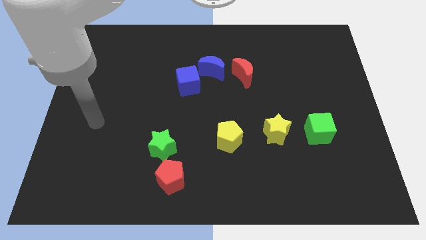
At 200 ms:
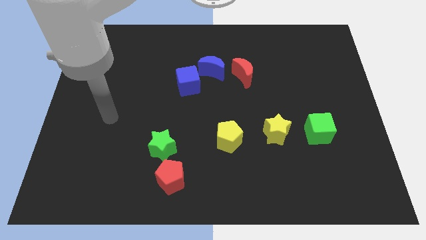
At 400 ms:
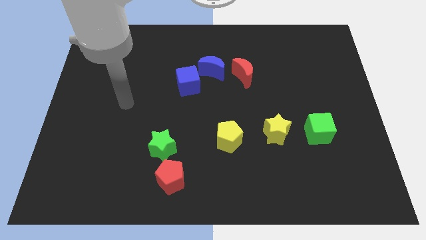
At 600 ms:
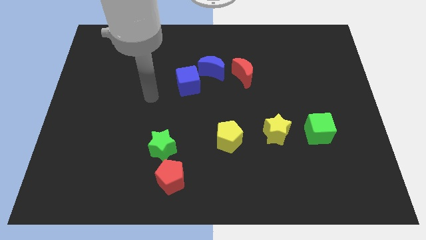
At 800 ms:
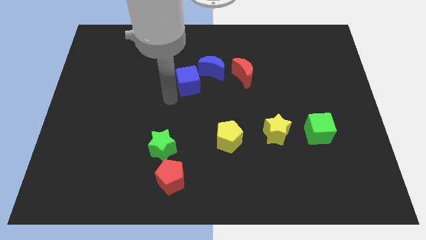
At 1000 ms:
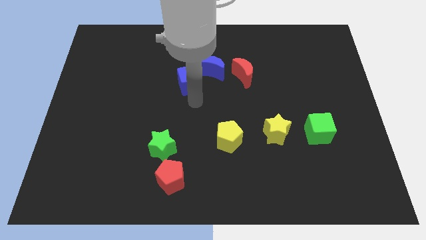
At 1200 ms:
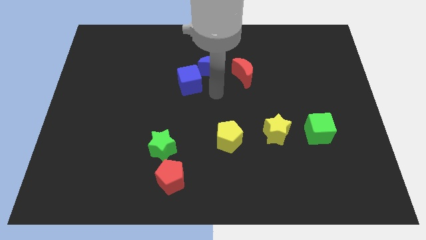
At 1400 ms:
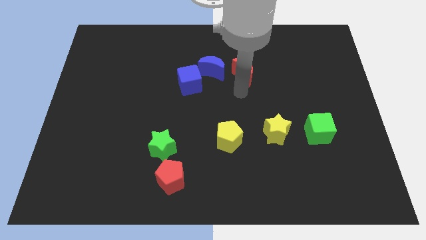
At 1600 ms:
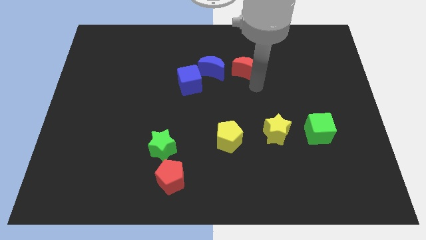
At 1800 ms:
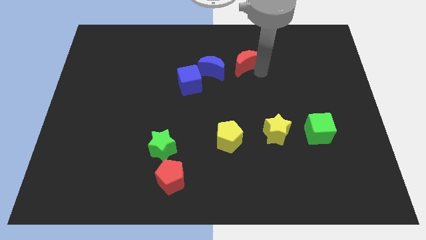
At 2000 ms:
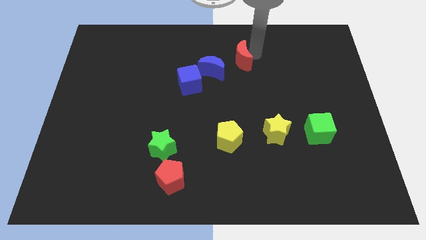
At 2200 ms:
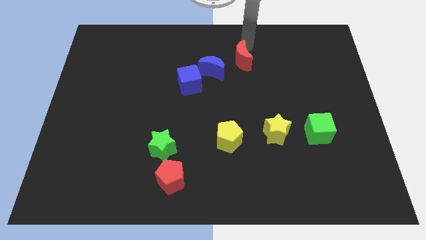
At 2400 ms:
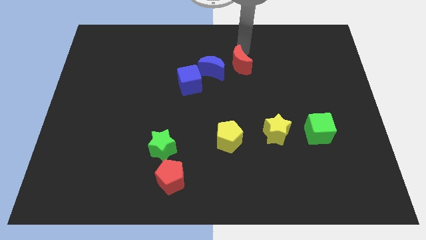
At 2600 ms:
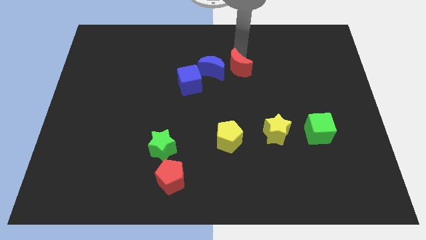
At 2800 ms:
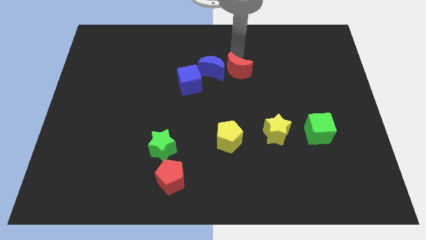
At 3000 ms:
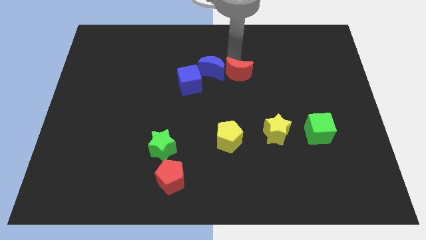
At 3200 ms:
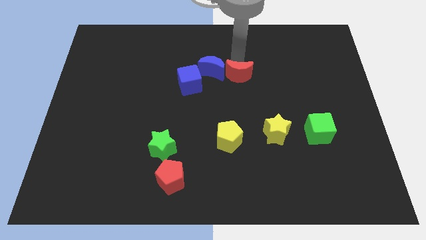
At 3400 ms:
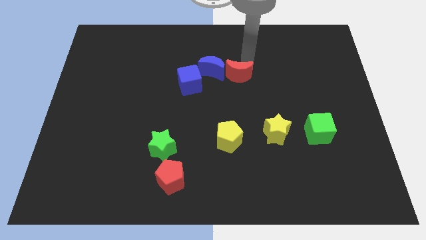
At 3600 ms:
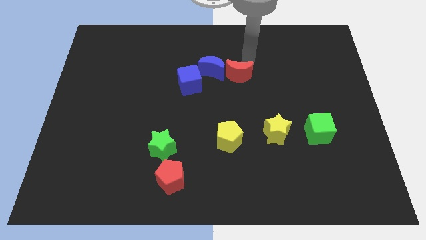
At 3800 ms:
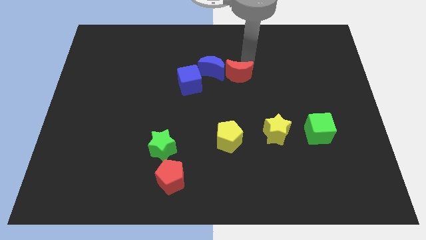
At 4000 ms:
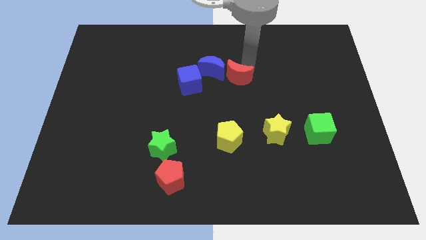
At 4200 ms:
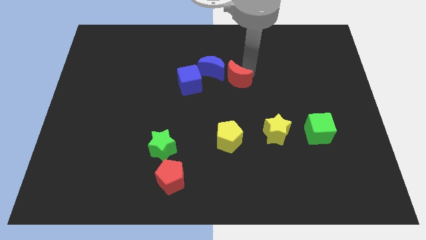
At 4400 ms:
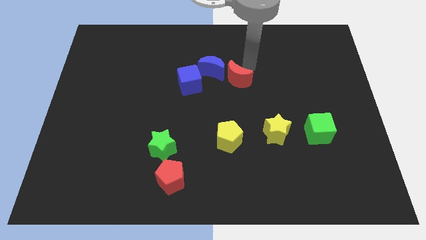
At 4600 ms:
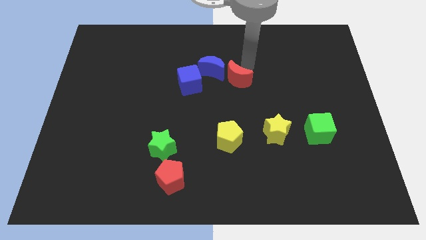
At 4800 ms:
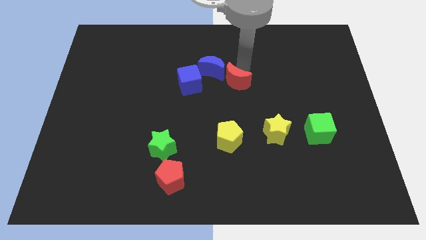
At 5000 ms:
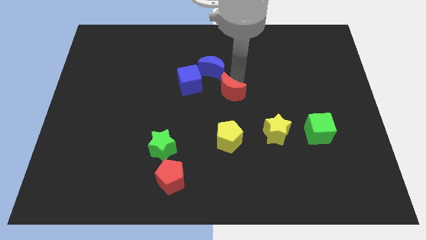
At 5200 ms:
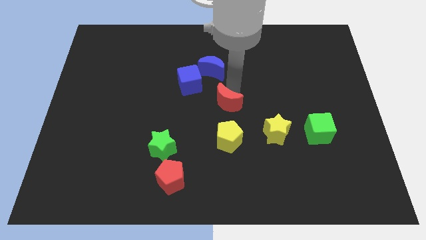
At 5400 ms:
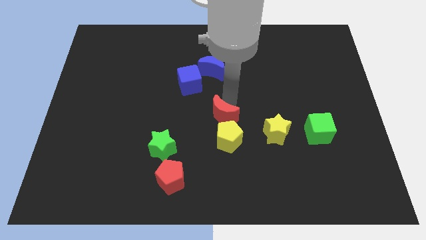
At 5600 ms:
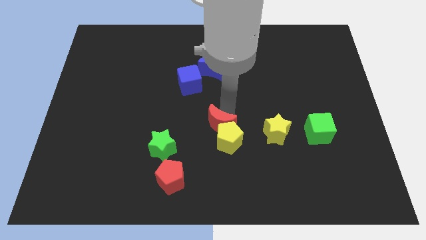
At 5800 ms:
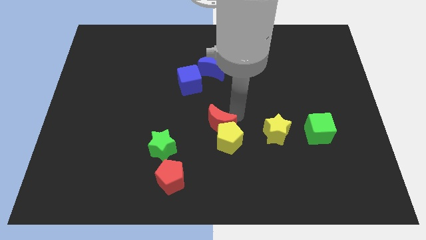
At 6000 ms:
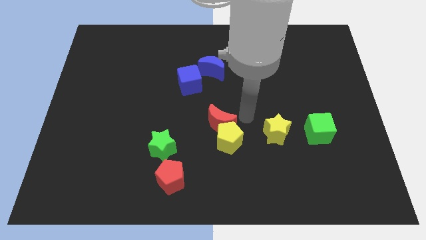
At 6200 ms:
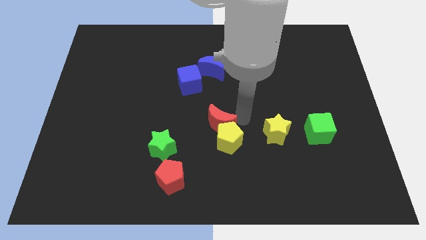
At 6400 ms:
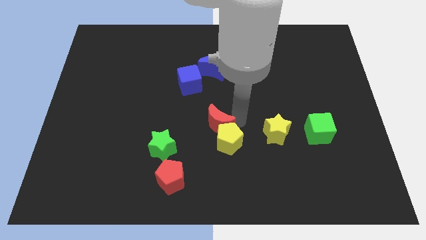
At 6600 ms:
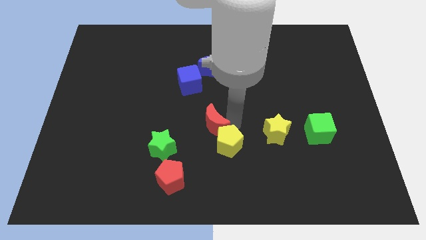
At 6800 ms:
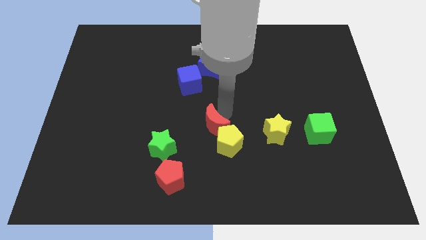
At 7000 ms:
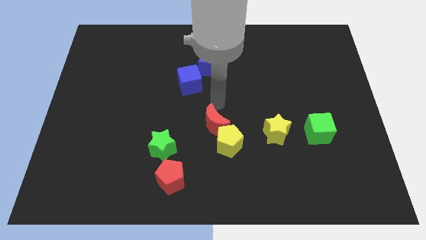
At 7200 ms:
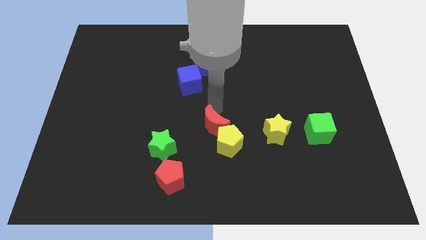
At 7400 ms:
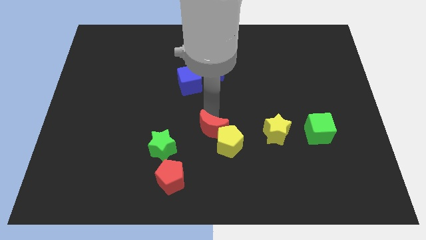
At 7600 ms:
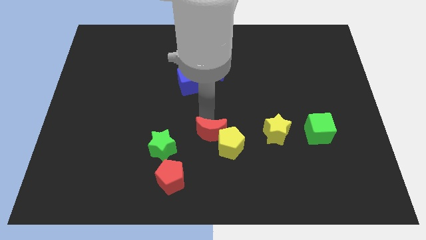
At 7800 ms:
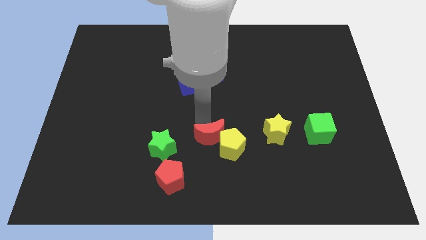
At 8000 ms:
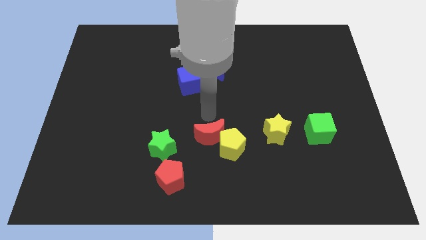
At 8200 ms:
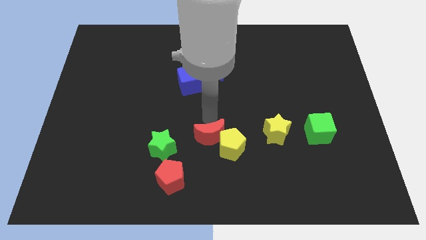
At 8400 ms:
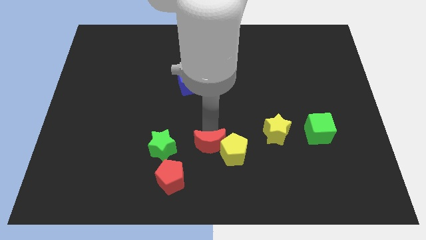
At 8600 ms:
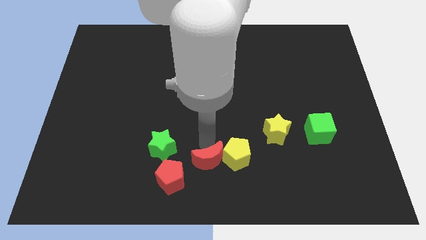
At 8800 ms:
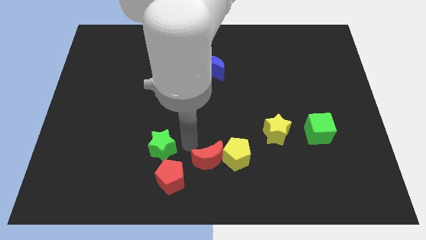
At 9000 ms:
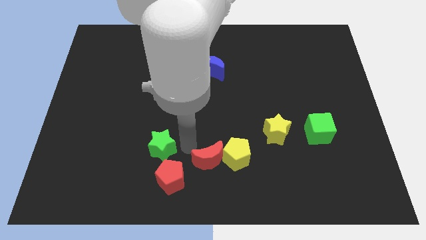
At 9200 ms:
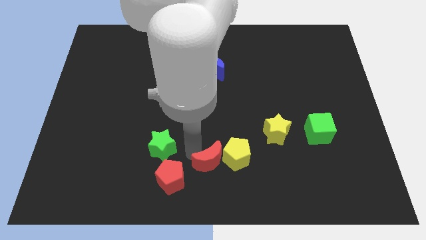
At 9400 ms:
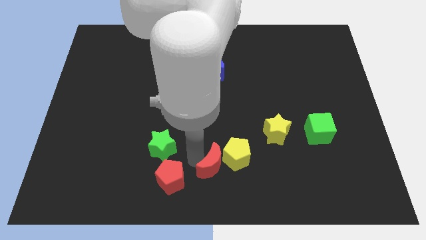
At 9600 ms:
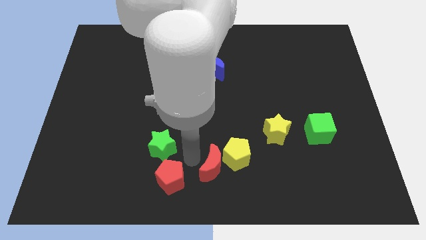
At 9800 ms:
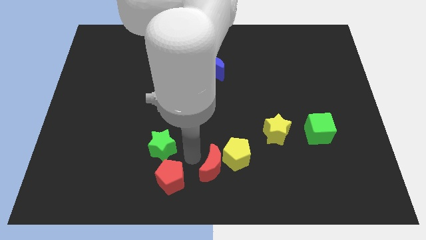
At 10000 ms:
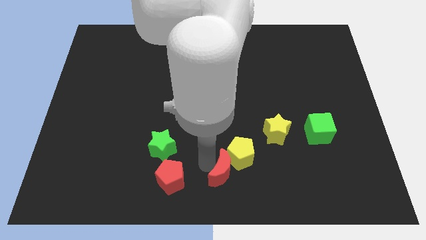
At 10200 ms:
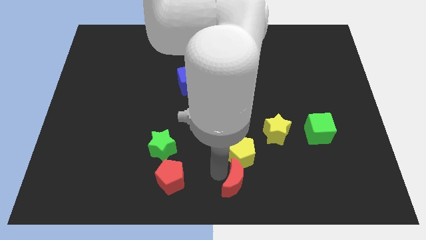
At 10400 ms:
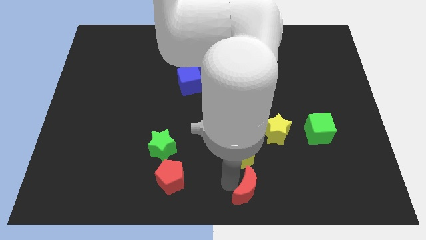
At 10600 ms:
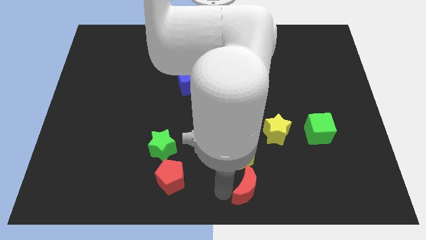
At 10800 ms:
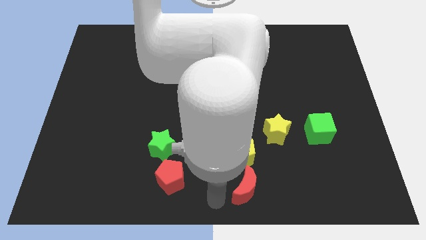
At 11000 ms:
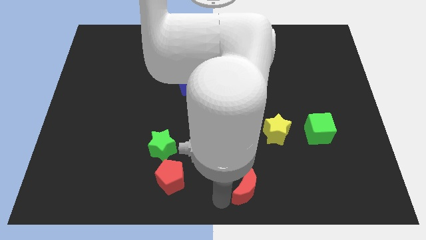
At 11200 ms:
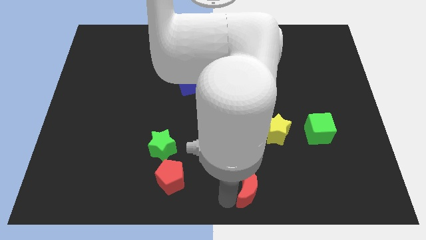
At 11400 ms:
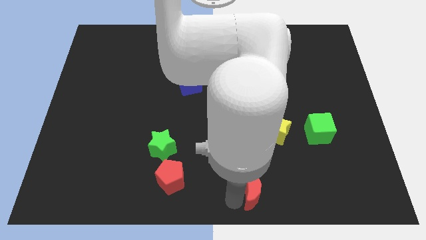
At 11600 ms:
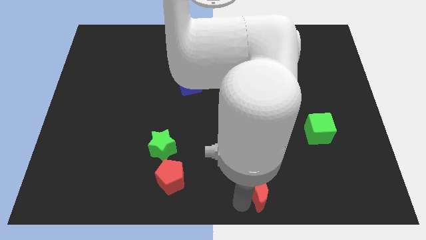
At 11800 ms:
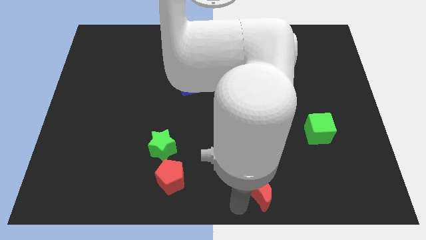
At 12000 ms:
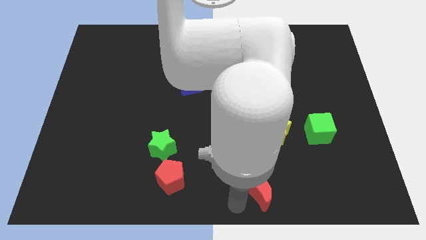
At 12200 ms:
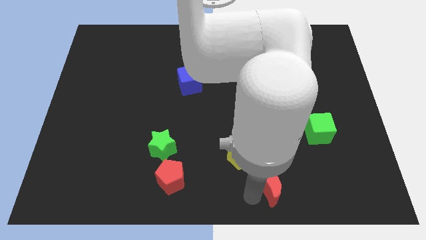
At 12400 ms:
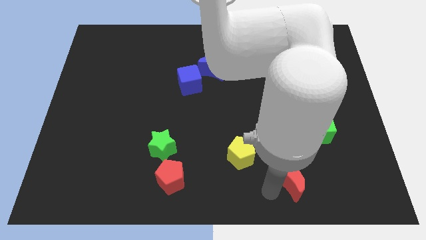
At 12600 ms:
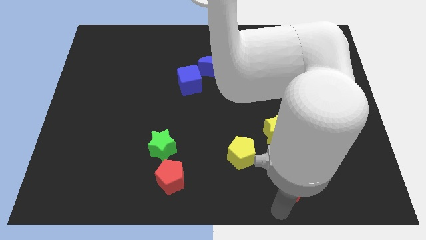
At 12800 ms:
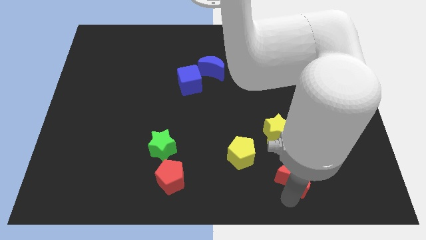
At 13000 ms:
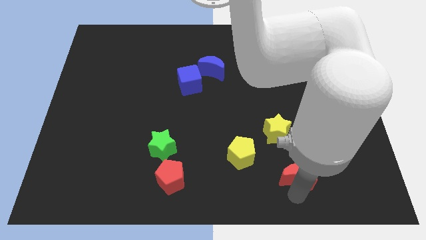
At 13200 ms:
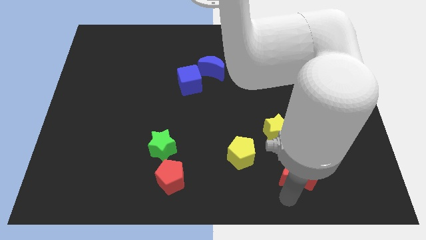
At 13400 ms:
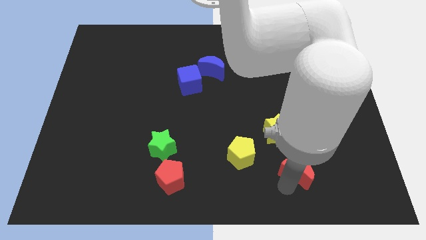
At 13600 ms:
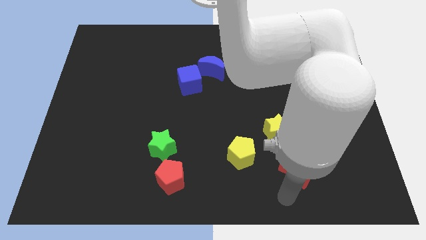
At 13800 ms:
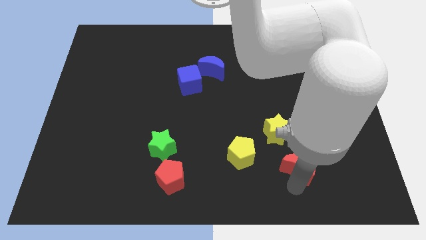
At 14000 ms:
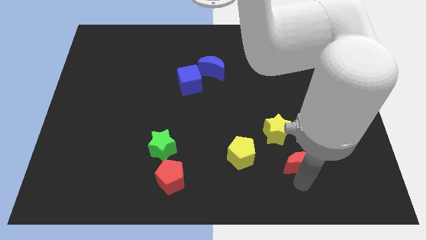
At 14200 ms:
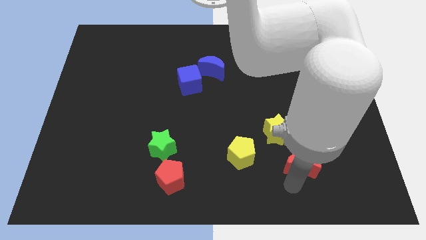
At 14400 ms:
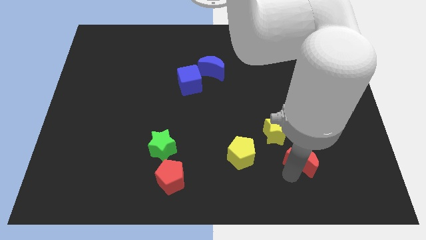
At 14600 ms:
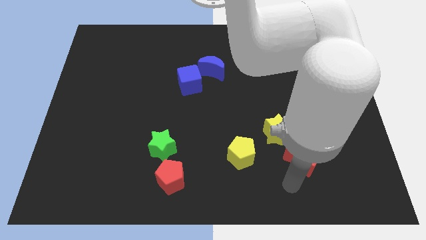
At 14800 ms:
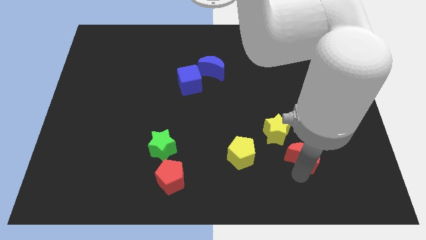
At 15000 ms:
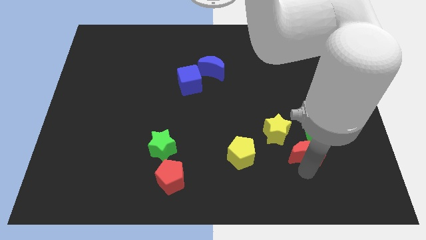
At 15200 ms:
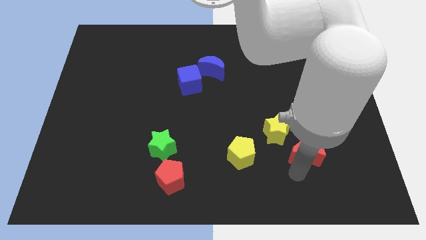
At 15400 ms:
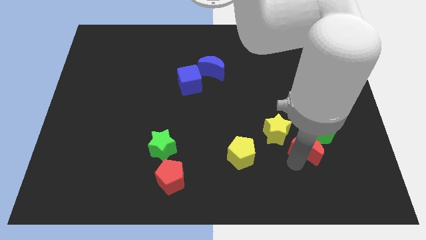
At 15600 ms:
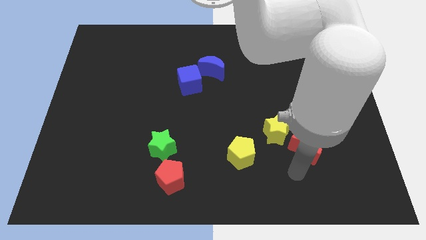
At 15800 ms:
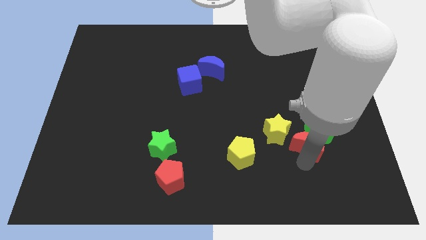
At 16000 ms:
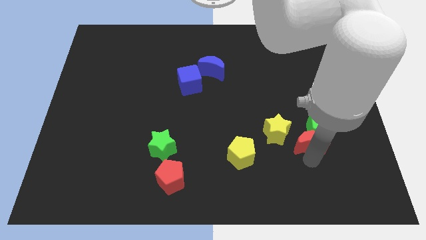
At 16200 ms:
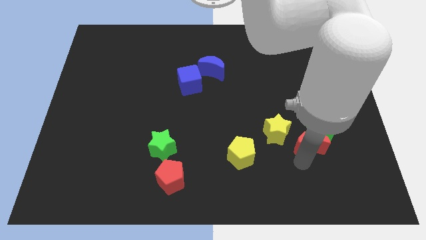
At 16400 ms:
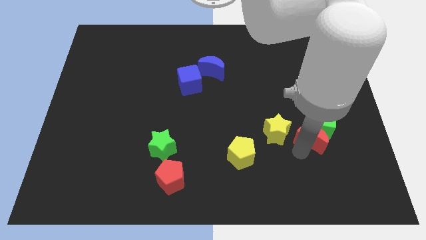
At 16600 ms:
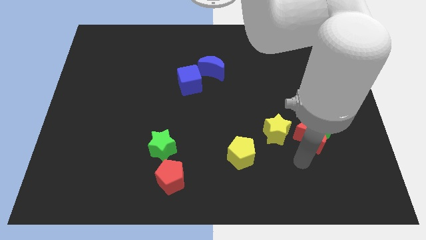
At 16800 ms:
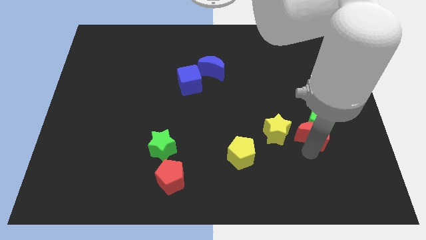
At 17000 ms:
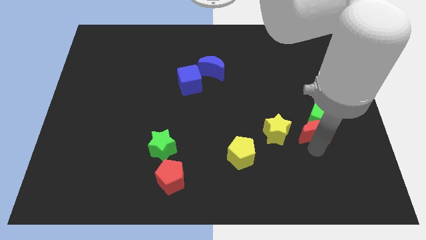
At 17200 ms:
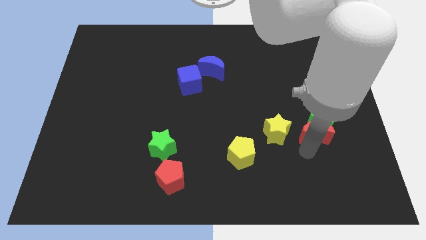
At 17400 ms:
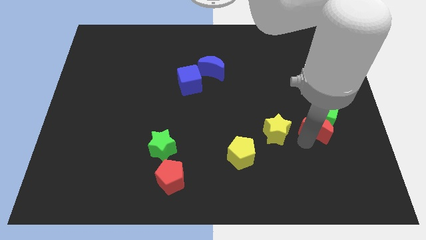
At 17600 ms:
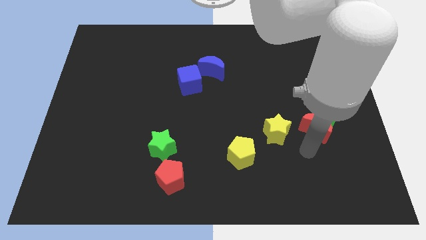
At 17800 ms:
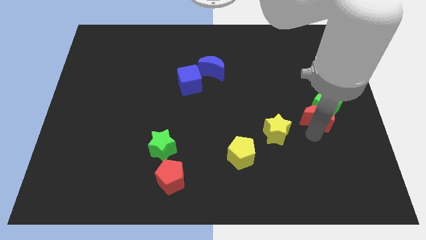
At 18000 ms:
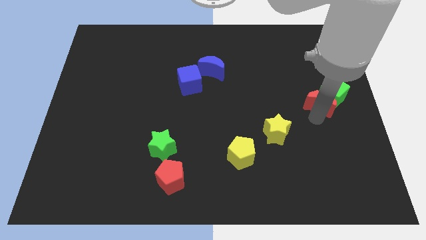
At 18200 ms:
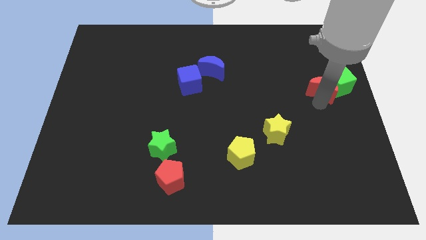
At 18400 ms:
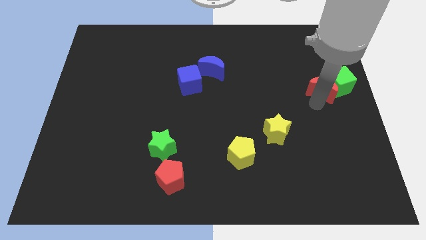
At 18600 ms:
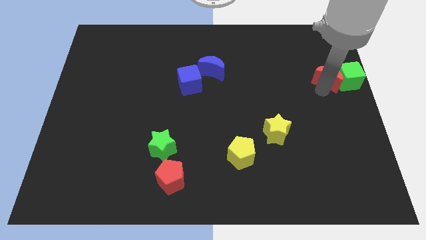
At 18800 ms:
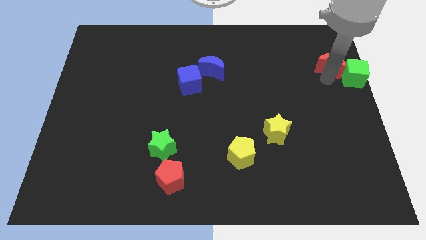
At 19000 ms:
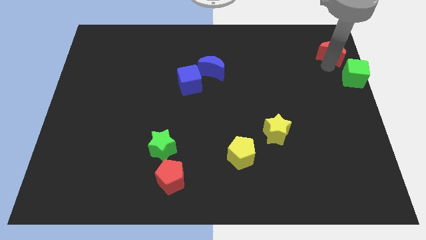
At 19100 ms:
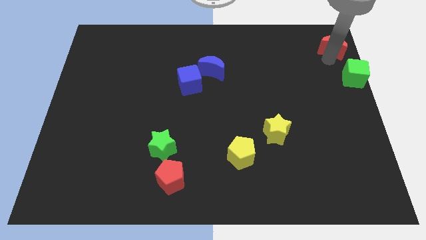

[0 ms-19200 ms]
put the red moon to the upper right corner
